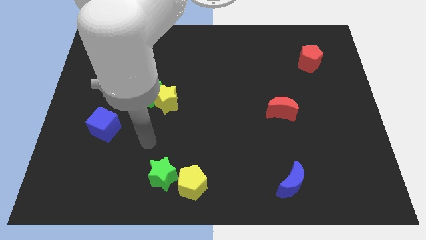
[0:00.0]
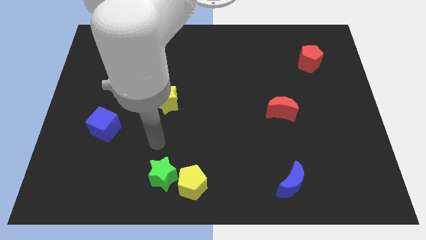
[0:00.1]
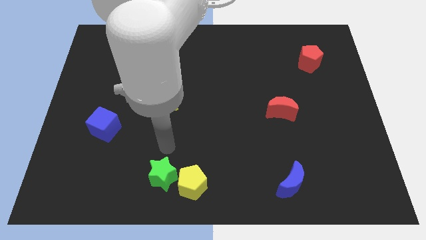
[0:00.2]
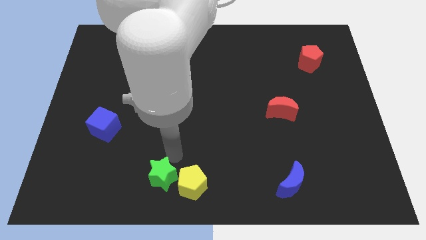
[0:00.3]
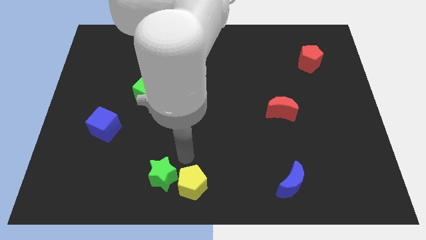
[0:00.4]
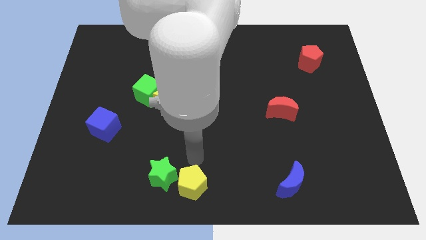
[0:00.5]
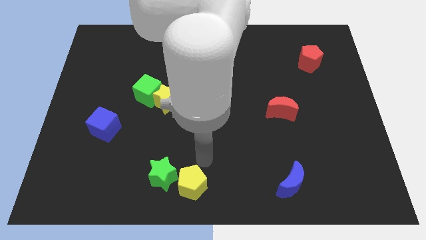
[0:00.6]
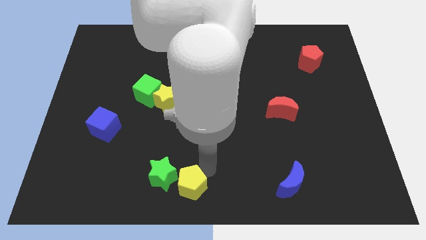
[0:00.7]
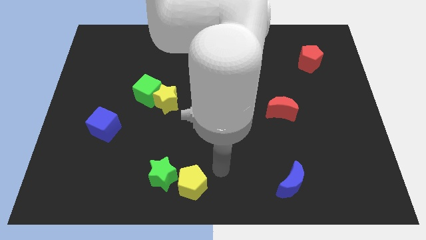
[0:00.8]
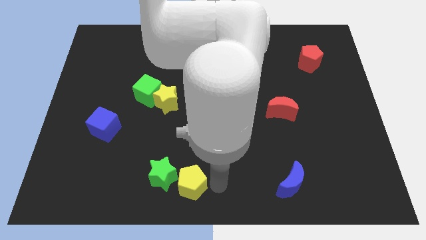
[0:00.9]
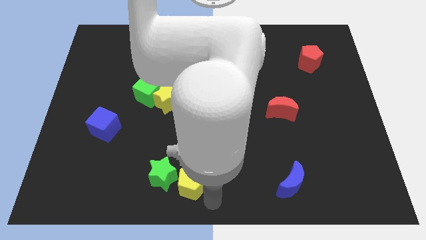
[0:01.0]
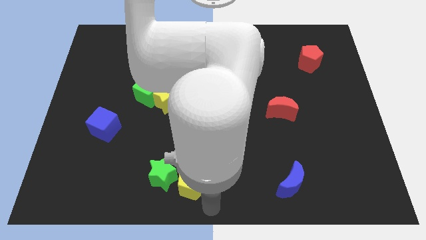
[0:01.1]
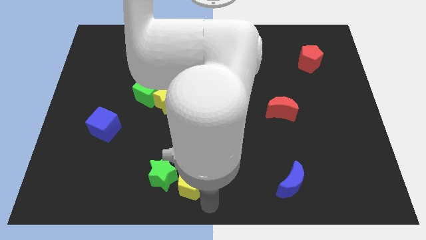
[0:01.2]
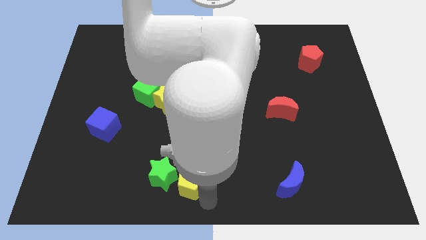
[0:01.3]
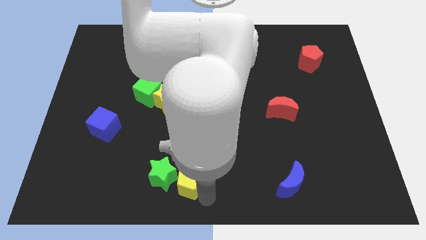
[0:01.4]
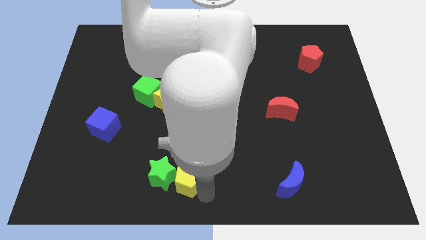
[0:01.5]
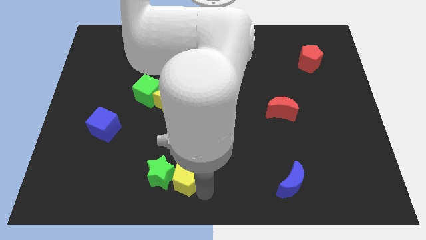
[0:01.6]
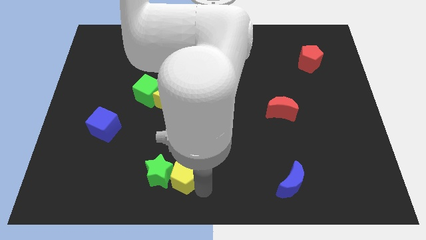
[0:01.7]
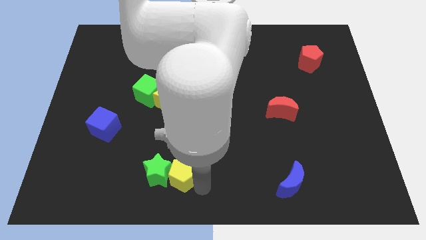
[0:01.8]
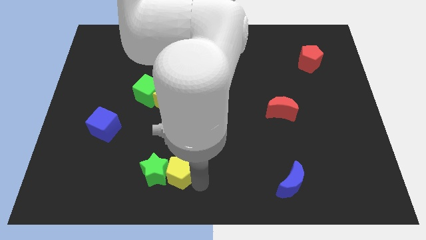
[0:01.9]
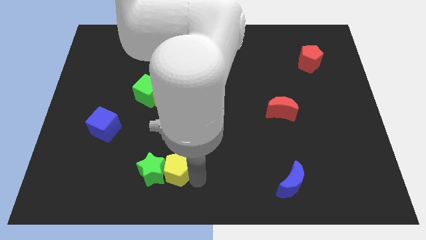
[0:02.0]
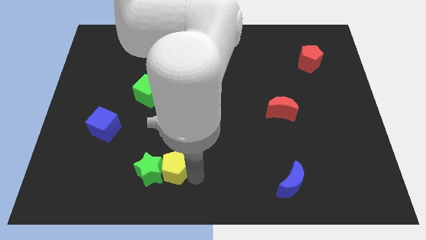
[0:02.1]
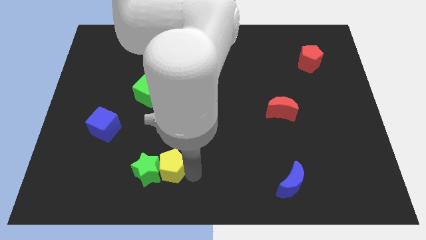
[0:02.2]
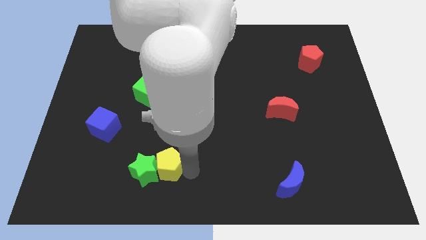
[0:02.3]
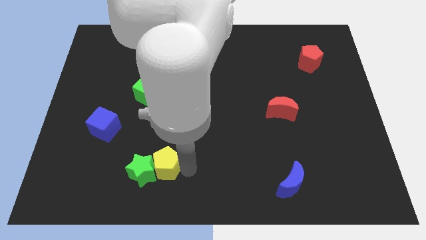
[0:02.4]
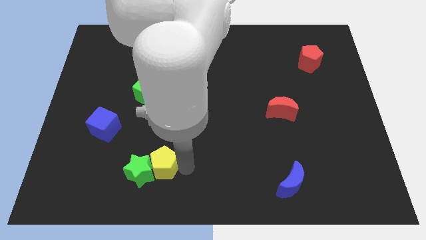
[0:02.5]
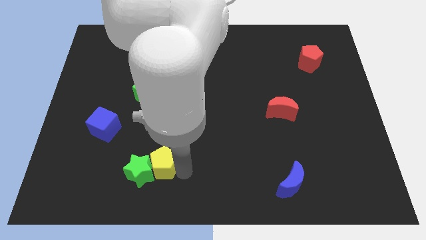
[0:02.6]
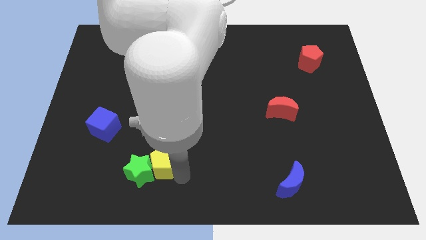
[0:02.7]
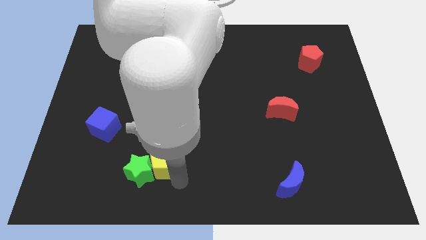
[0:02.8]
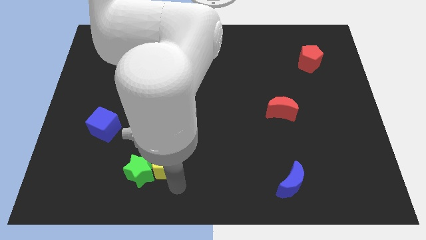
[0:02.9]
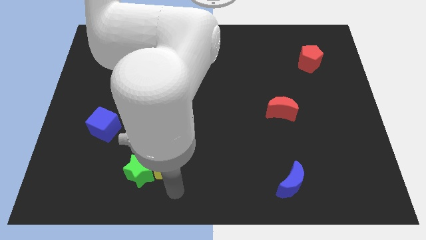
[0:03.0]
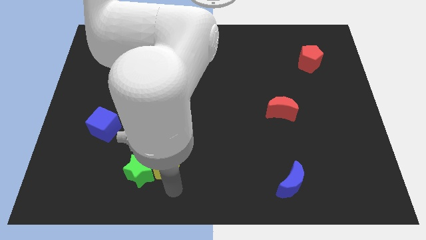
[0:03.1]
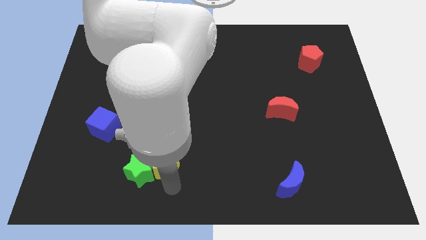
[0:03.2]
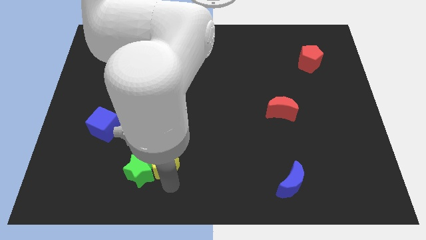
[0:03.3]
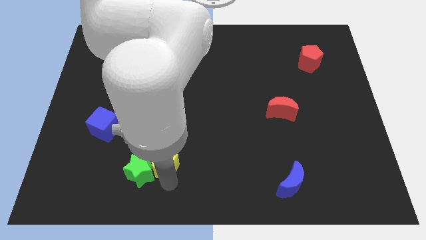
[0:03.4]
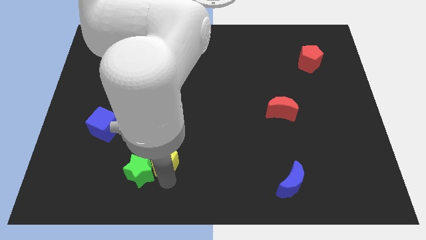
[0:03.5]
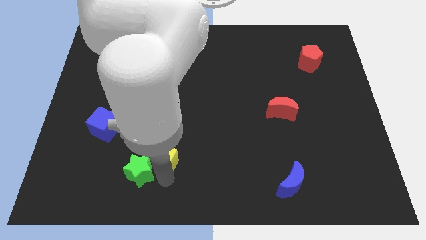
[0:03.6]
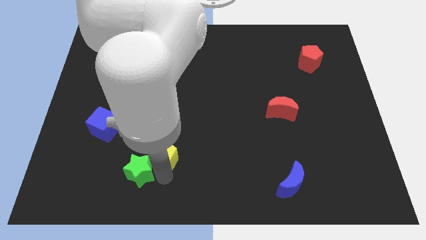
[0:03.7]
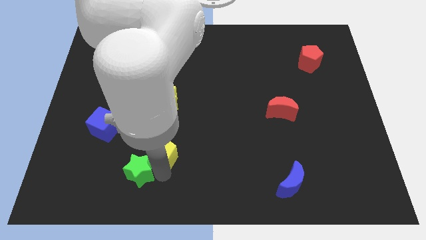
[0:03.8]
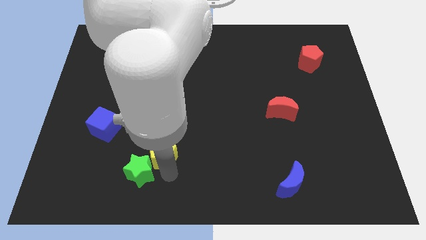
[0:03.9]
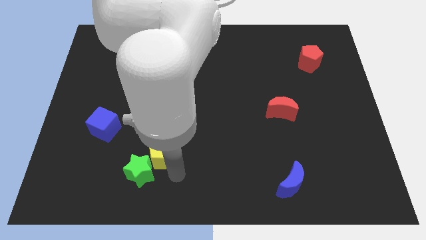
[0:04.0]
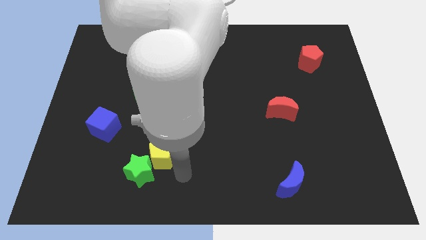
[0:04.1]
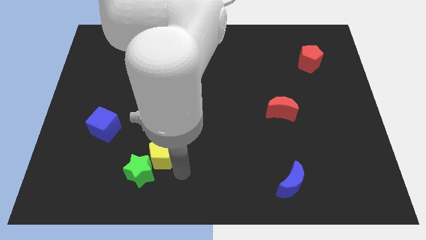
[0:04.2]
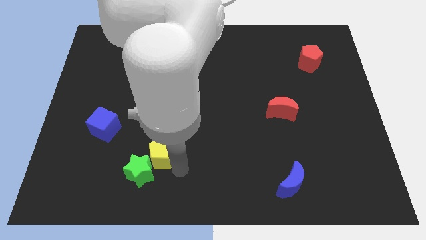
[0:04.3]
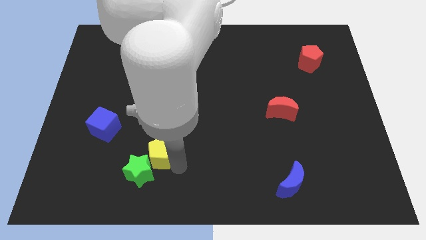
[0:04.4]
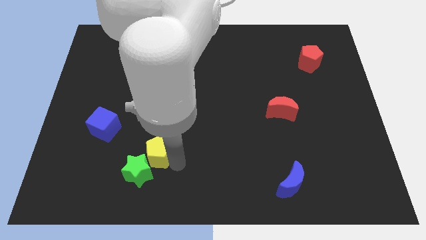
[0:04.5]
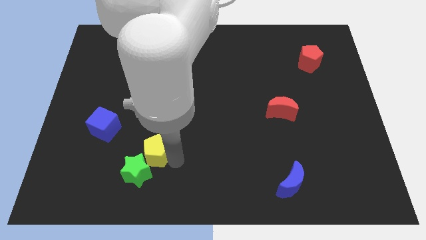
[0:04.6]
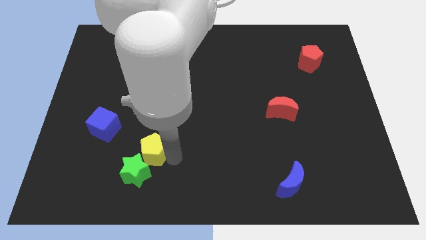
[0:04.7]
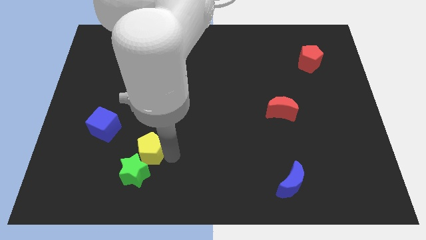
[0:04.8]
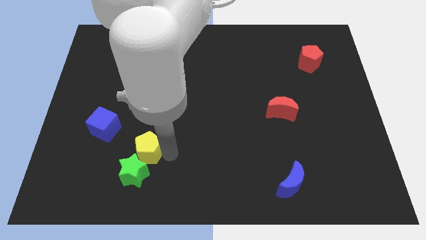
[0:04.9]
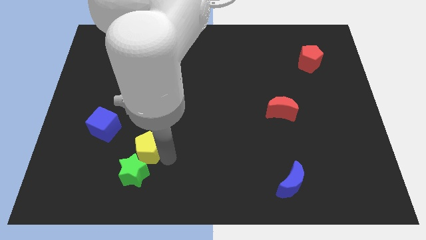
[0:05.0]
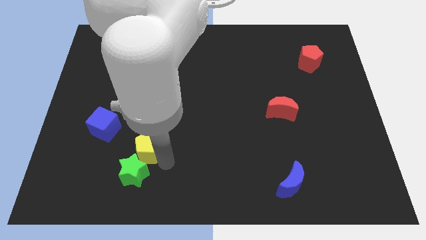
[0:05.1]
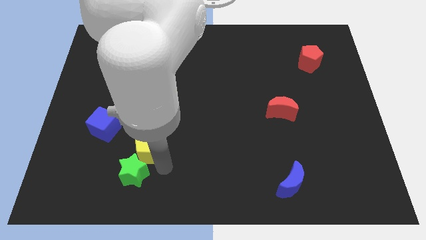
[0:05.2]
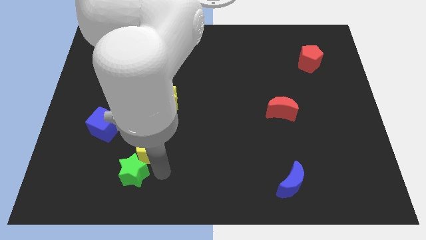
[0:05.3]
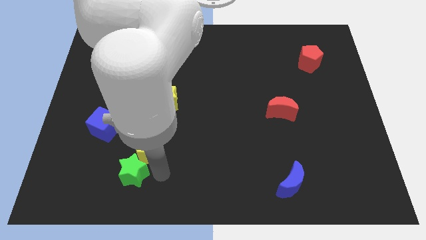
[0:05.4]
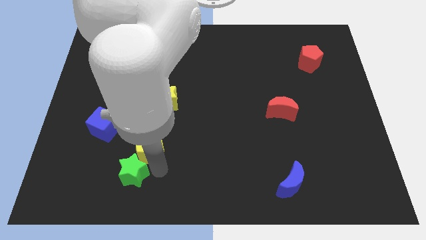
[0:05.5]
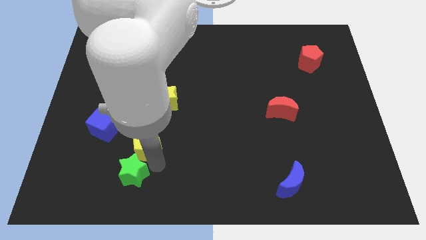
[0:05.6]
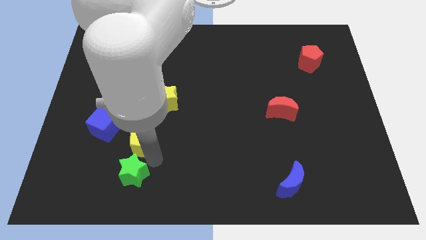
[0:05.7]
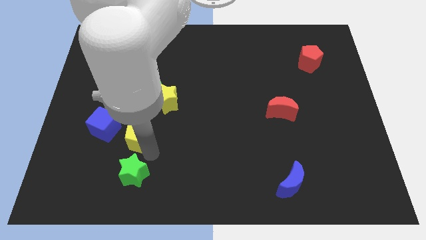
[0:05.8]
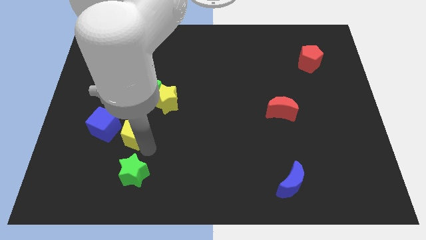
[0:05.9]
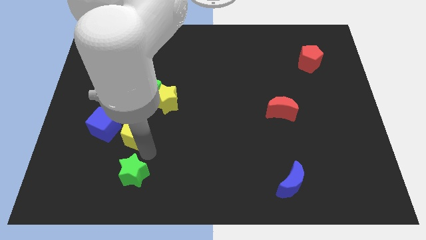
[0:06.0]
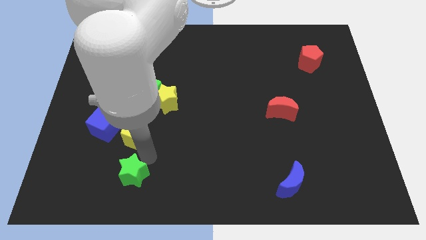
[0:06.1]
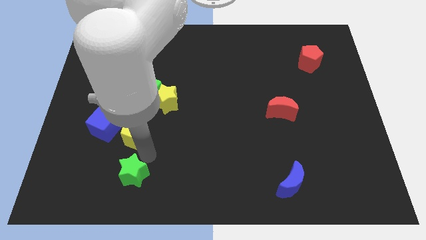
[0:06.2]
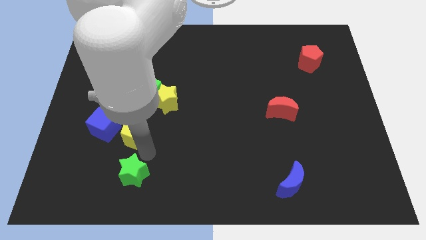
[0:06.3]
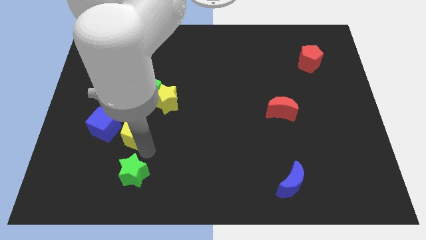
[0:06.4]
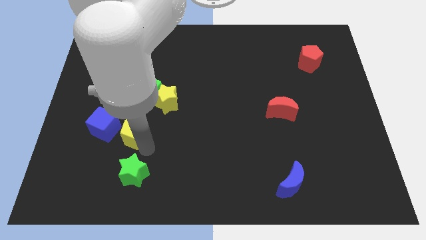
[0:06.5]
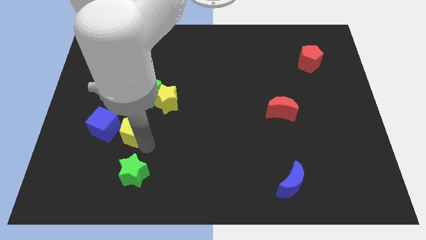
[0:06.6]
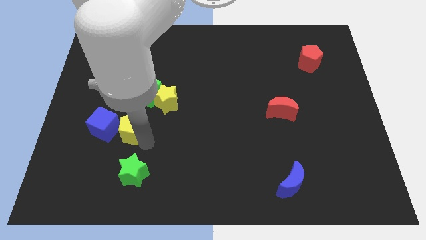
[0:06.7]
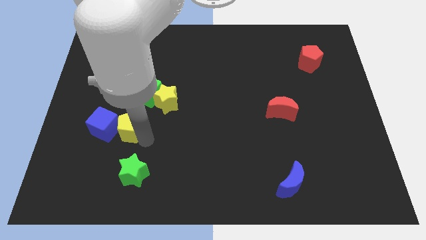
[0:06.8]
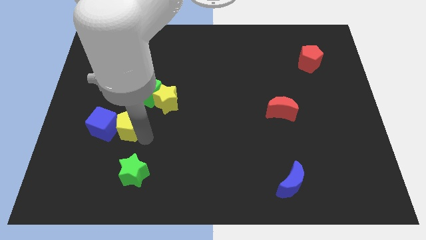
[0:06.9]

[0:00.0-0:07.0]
move the yellow pentagon up and left

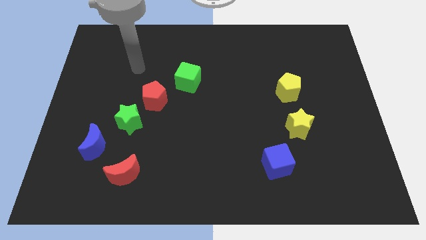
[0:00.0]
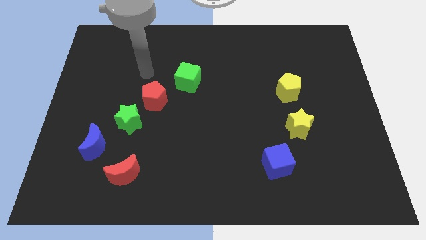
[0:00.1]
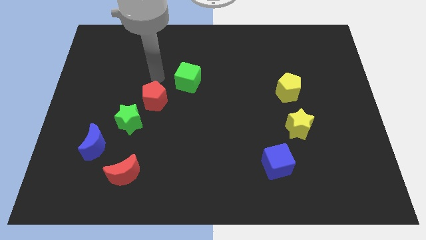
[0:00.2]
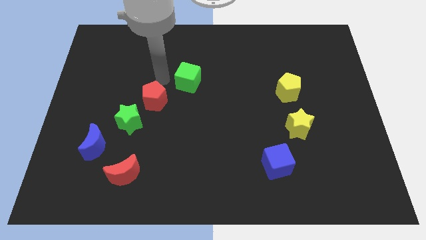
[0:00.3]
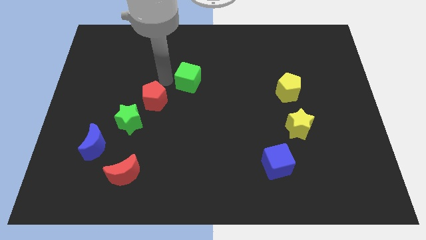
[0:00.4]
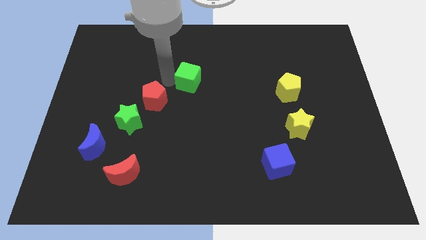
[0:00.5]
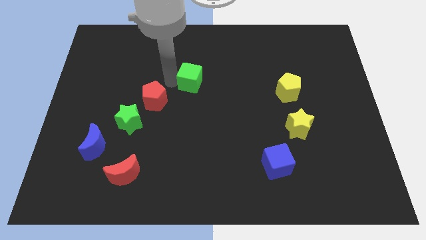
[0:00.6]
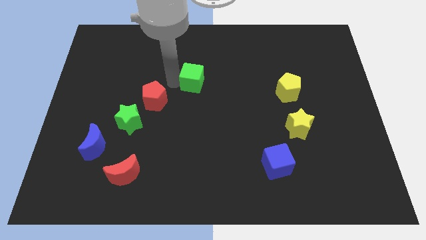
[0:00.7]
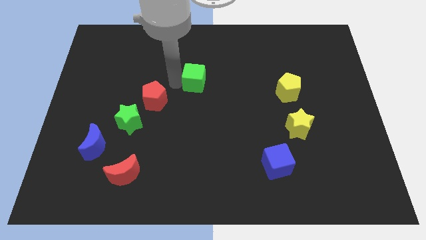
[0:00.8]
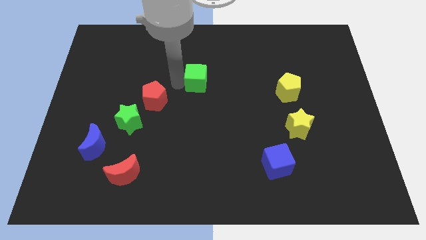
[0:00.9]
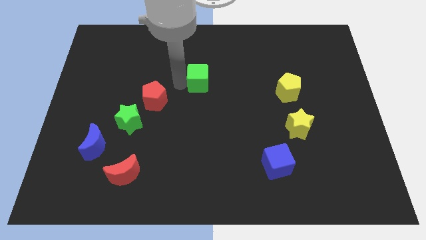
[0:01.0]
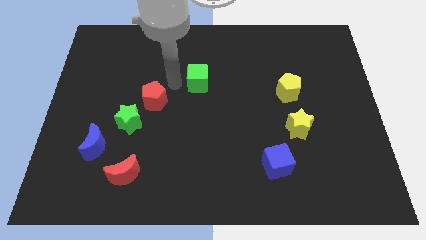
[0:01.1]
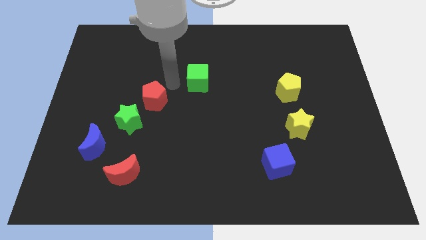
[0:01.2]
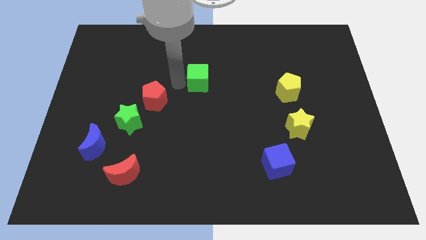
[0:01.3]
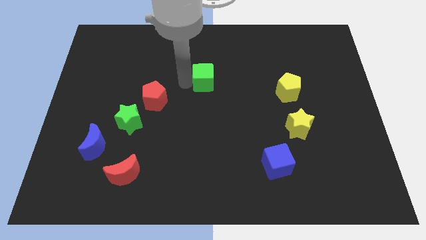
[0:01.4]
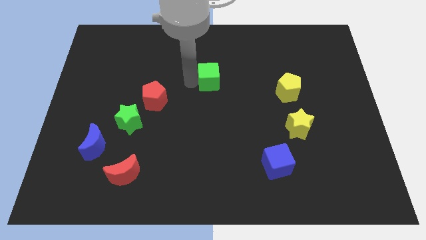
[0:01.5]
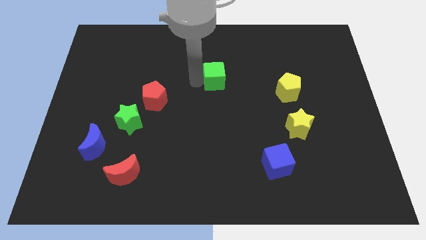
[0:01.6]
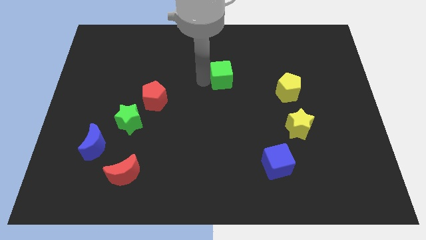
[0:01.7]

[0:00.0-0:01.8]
move the green cube a little right
